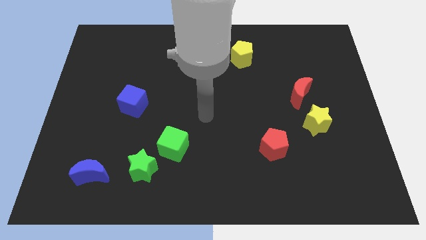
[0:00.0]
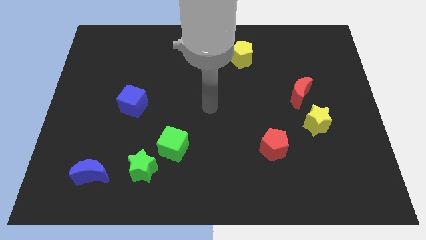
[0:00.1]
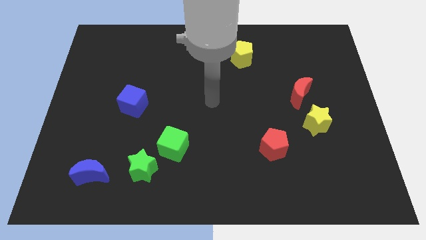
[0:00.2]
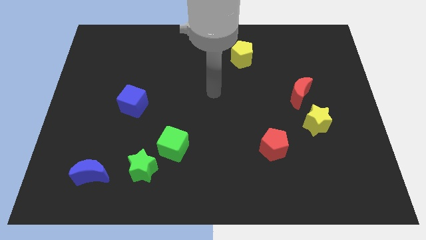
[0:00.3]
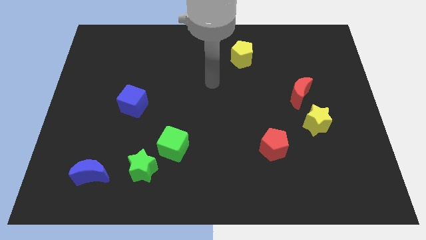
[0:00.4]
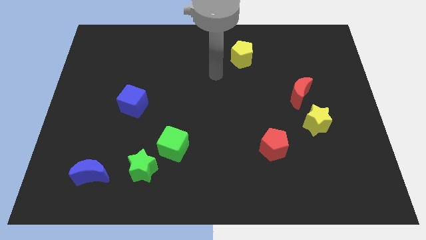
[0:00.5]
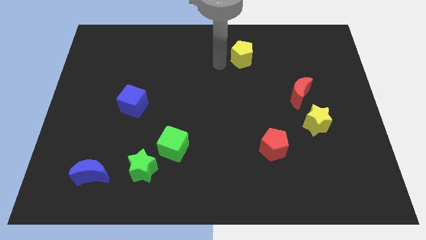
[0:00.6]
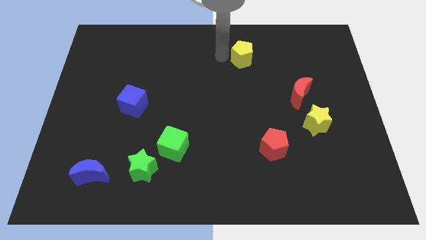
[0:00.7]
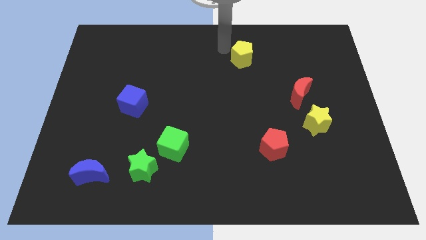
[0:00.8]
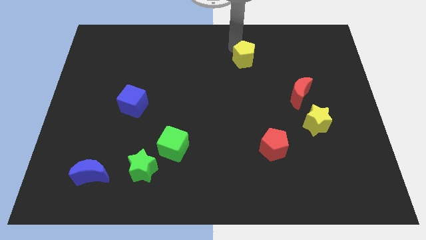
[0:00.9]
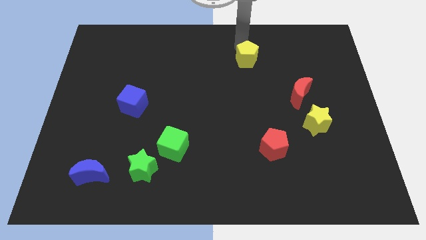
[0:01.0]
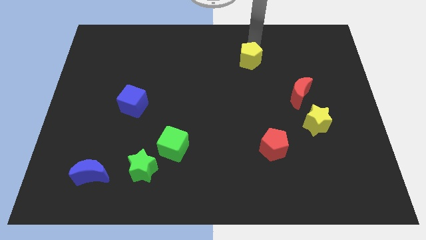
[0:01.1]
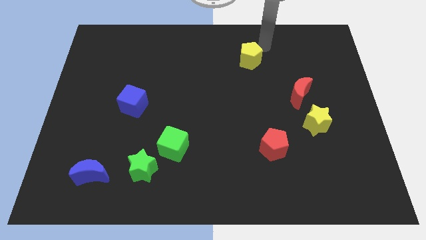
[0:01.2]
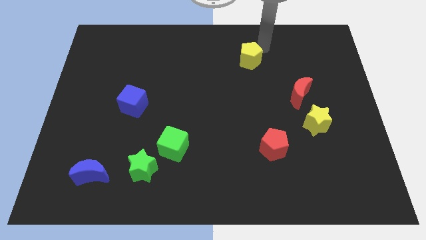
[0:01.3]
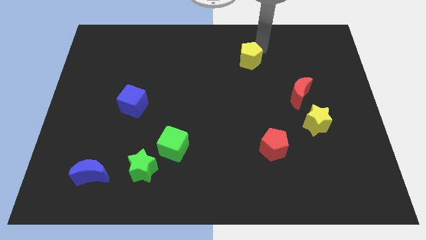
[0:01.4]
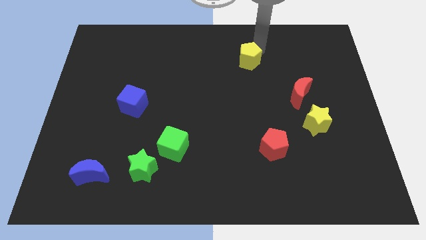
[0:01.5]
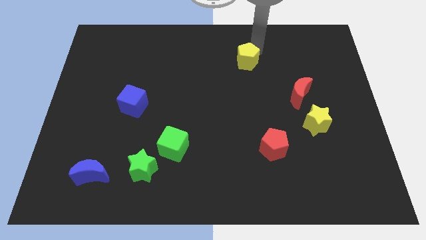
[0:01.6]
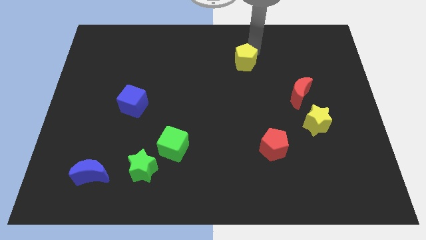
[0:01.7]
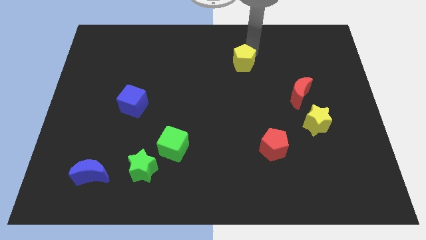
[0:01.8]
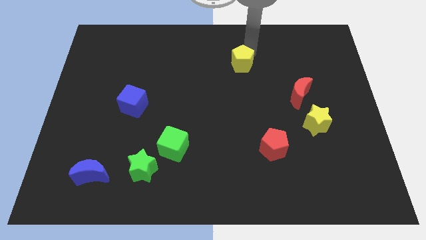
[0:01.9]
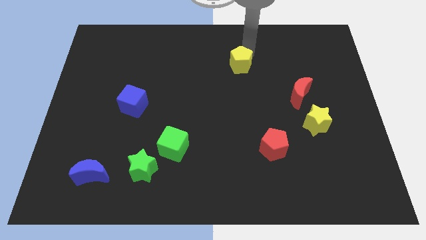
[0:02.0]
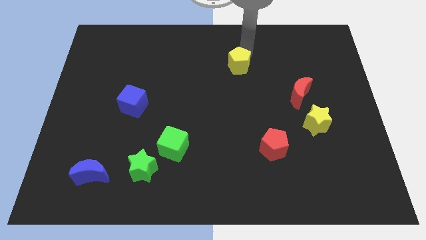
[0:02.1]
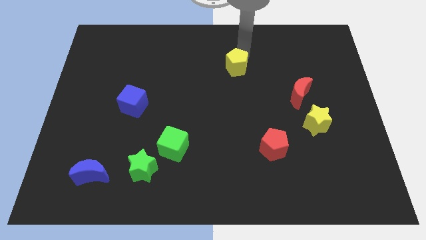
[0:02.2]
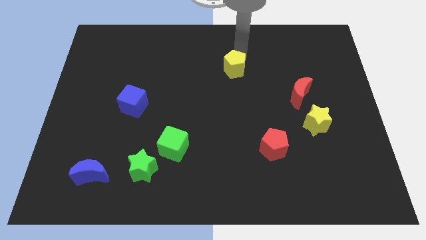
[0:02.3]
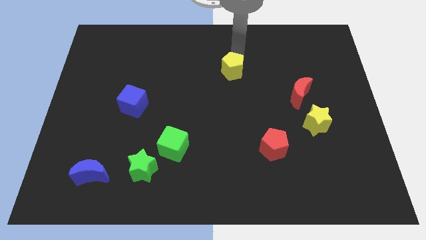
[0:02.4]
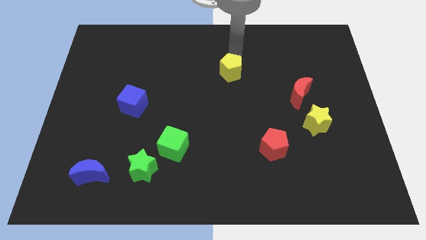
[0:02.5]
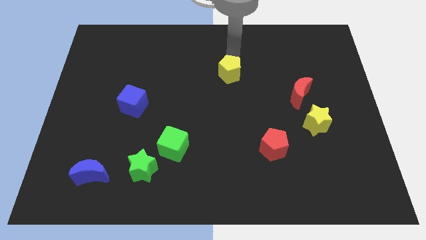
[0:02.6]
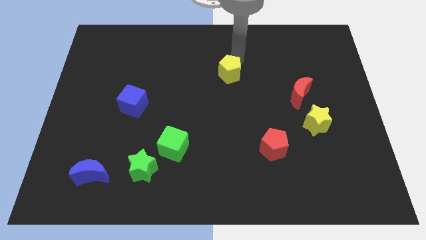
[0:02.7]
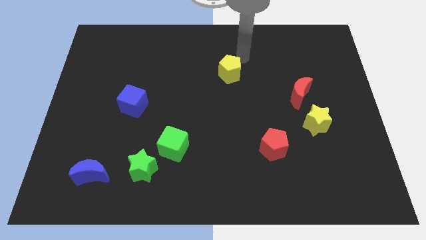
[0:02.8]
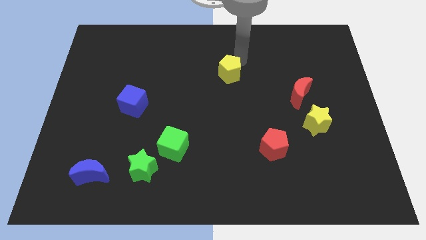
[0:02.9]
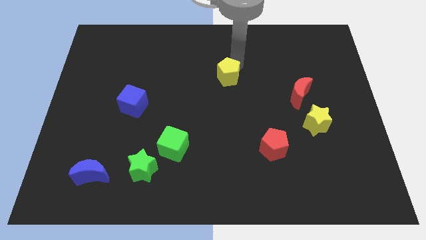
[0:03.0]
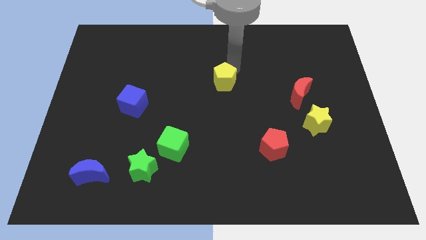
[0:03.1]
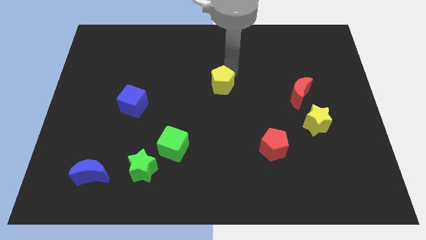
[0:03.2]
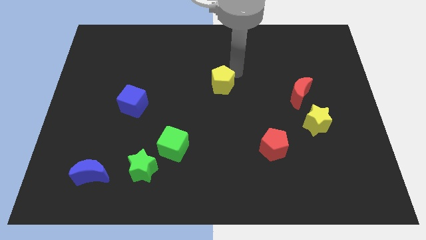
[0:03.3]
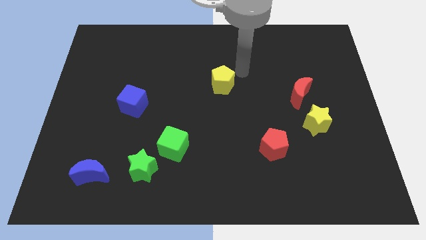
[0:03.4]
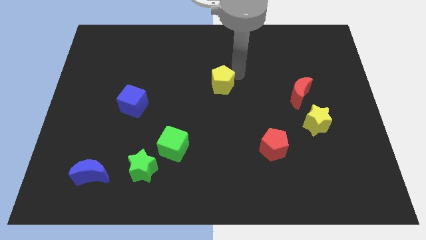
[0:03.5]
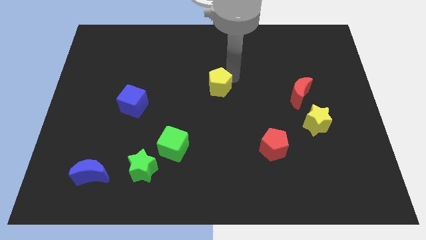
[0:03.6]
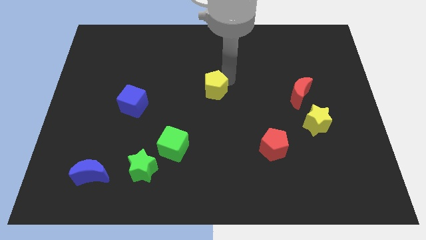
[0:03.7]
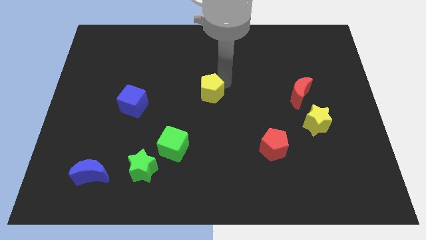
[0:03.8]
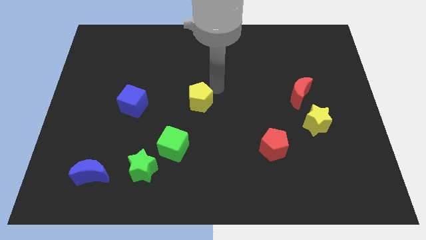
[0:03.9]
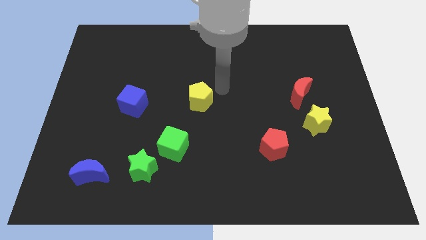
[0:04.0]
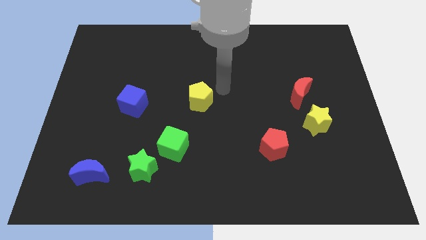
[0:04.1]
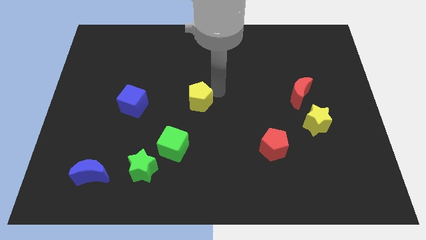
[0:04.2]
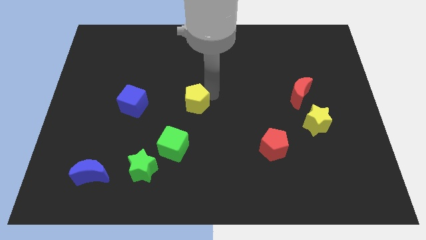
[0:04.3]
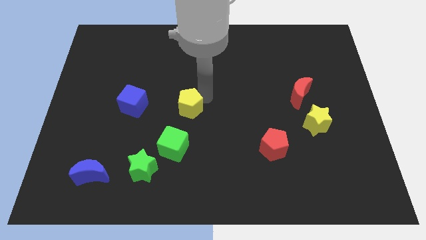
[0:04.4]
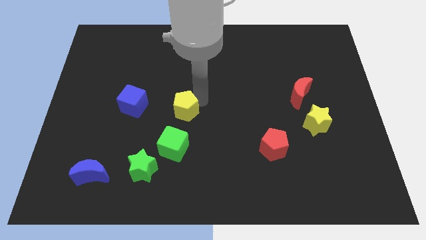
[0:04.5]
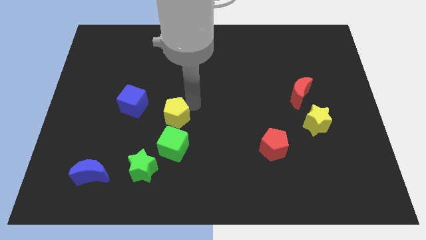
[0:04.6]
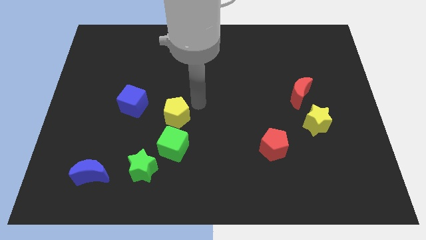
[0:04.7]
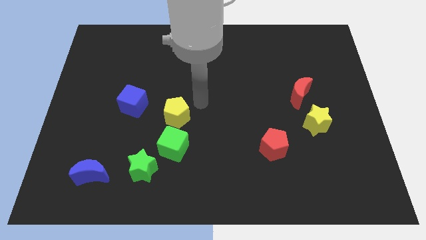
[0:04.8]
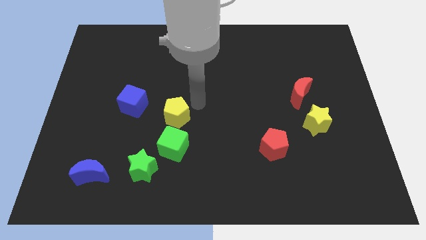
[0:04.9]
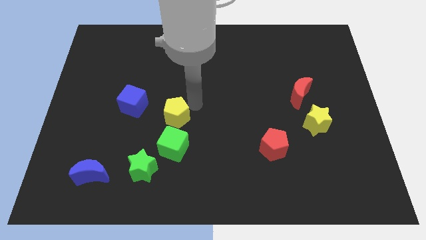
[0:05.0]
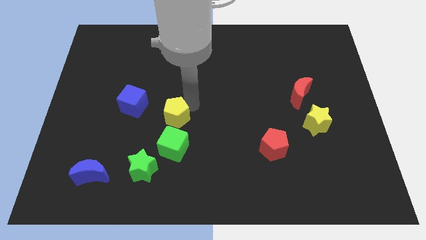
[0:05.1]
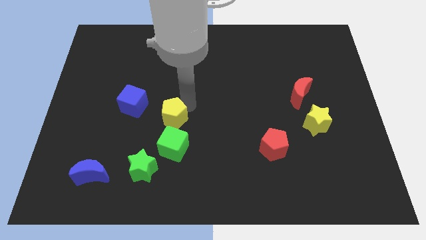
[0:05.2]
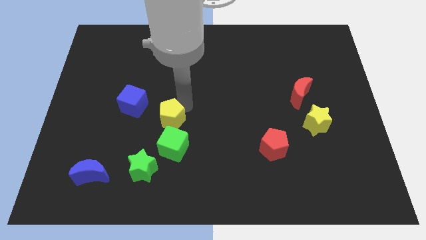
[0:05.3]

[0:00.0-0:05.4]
move the yellow pentagon to the top left of the green cube

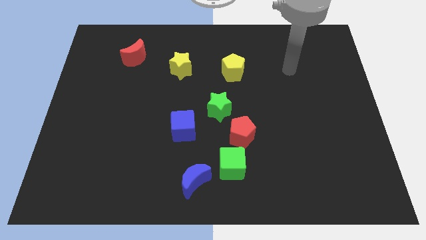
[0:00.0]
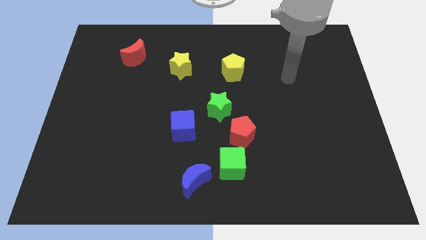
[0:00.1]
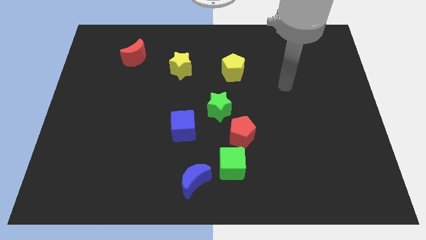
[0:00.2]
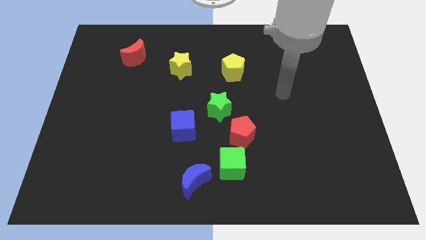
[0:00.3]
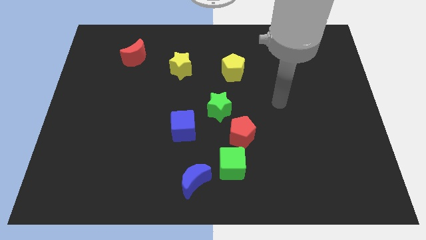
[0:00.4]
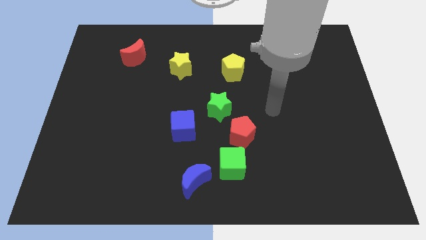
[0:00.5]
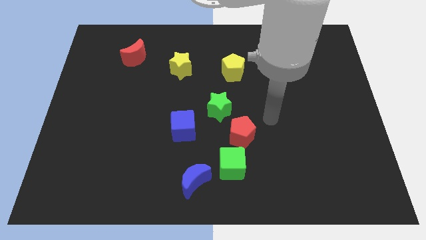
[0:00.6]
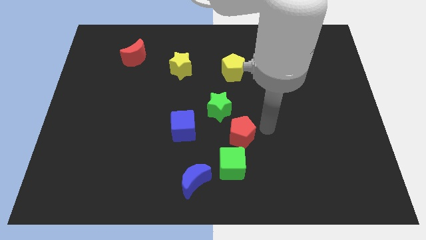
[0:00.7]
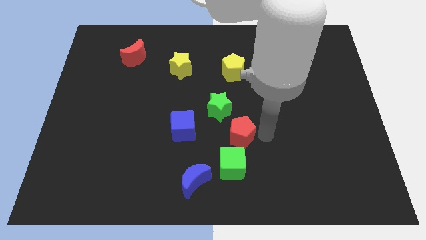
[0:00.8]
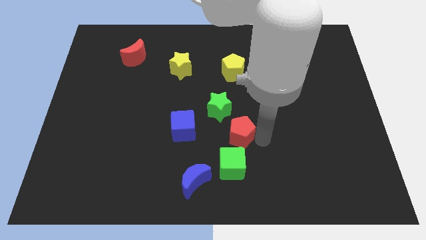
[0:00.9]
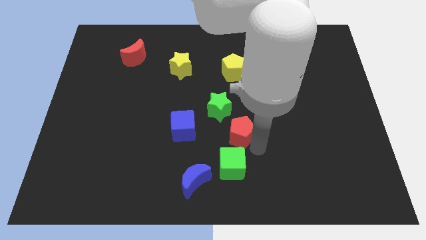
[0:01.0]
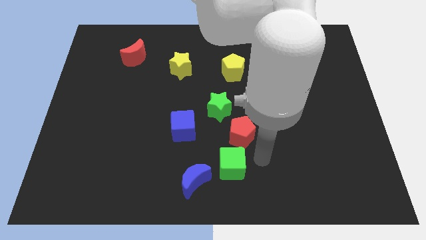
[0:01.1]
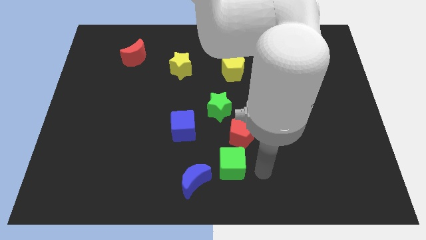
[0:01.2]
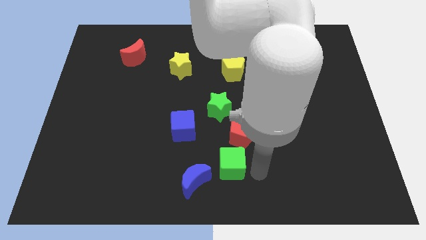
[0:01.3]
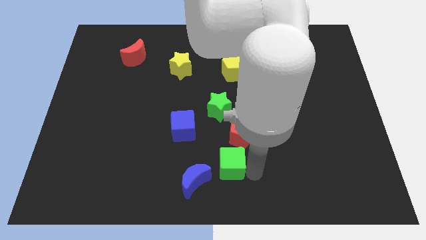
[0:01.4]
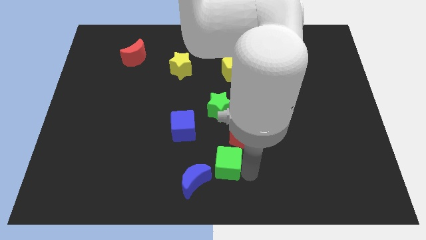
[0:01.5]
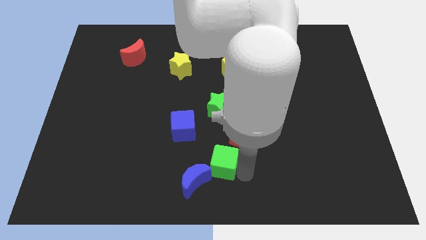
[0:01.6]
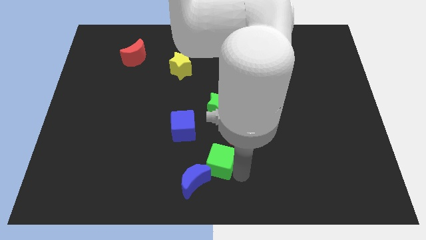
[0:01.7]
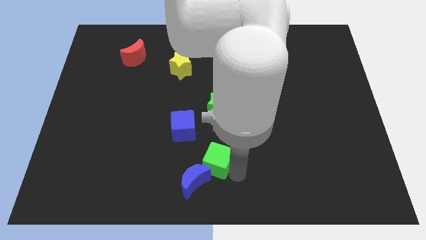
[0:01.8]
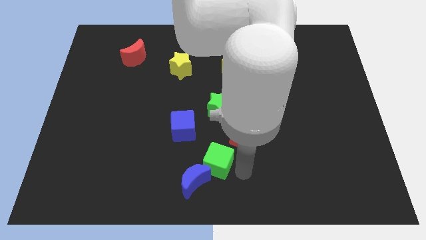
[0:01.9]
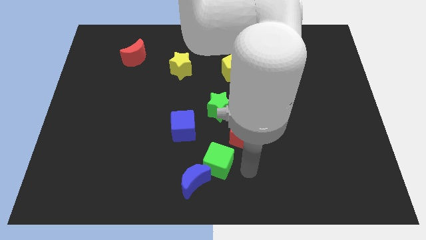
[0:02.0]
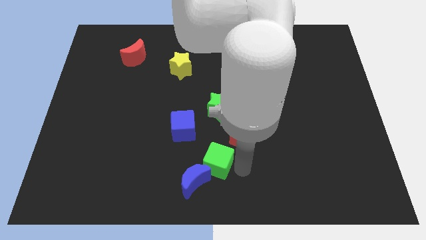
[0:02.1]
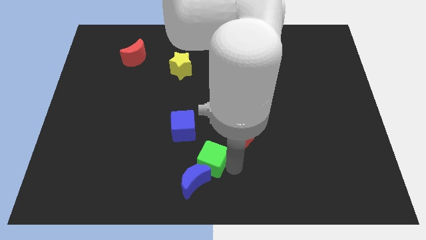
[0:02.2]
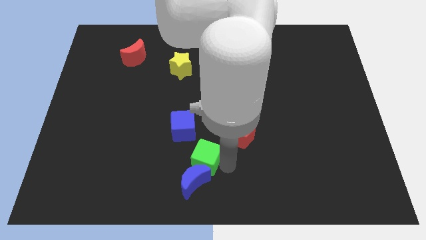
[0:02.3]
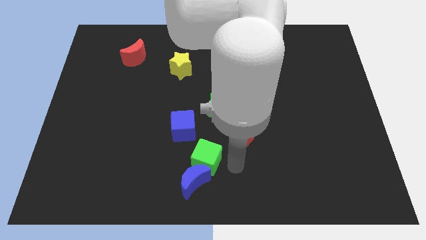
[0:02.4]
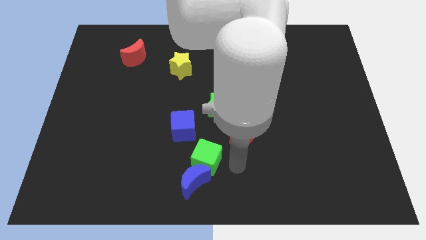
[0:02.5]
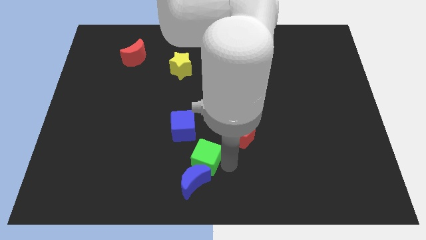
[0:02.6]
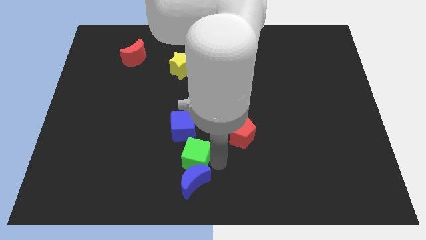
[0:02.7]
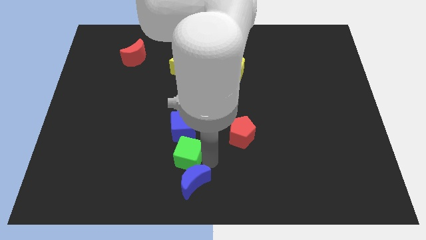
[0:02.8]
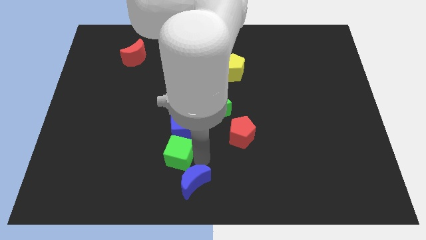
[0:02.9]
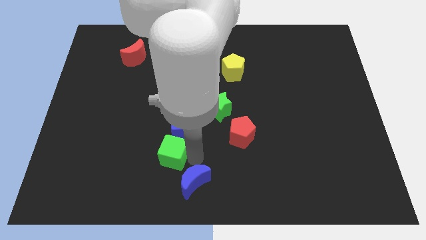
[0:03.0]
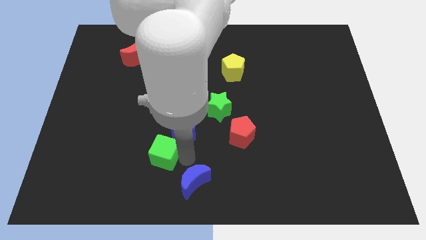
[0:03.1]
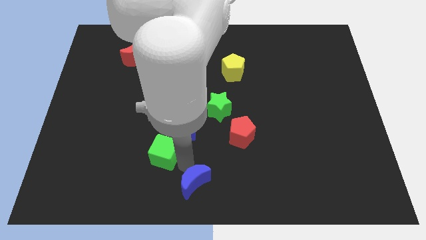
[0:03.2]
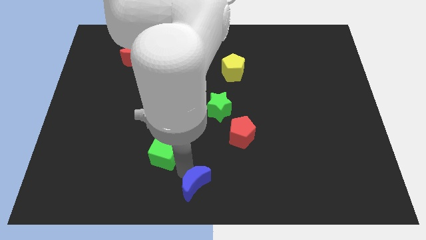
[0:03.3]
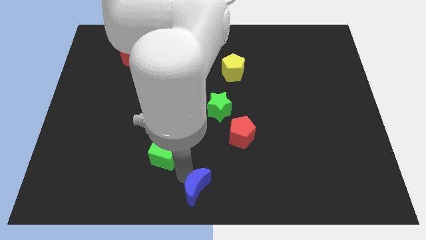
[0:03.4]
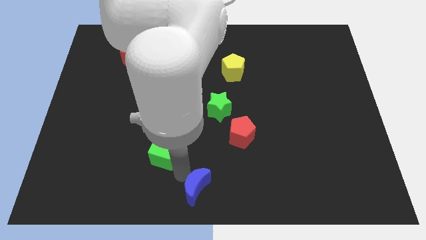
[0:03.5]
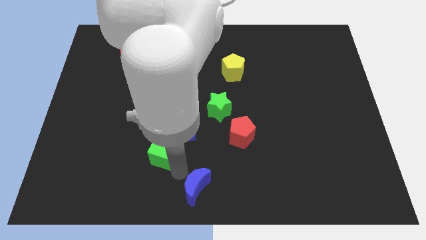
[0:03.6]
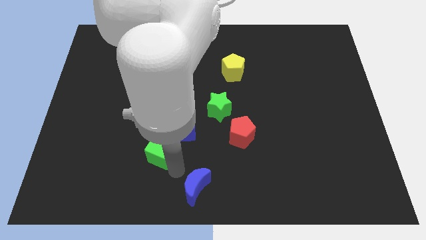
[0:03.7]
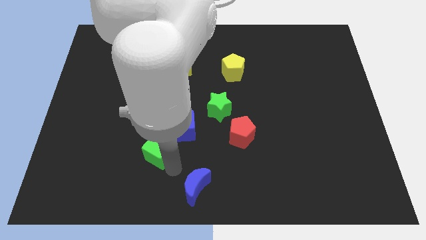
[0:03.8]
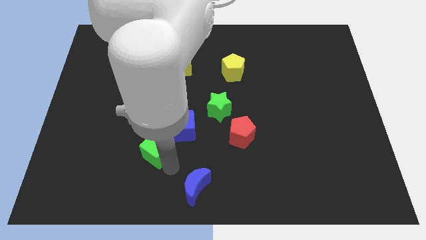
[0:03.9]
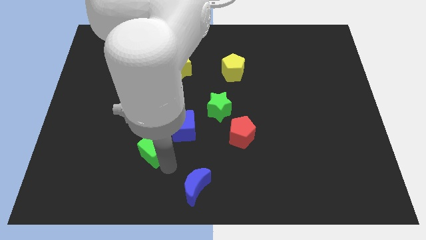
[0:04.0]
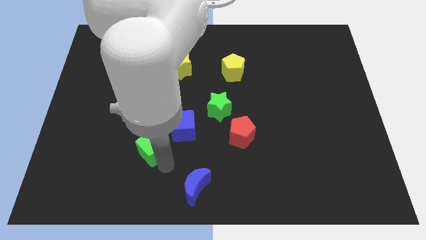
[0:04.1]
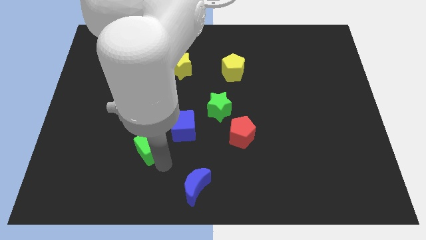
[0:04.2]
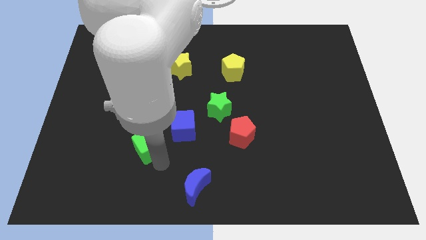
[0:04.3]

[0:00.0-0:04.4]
slide the green cube to the left of the blue cube
